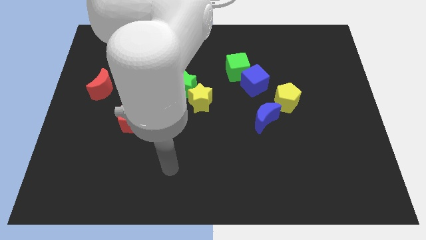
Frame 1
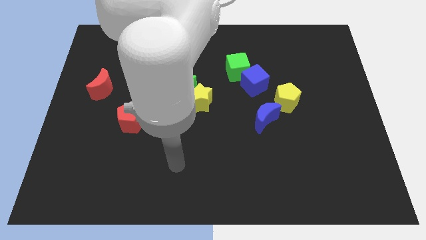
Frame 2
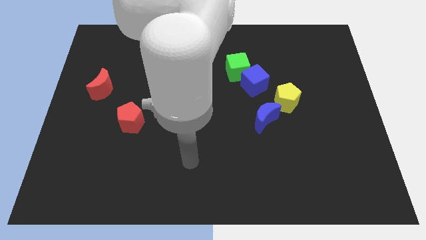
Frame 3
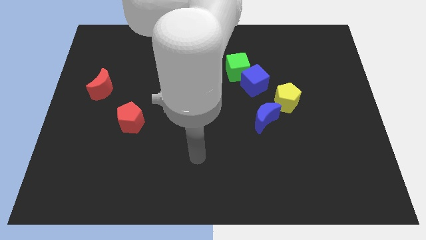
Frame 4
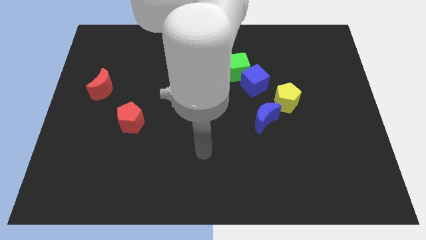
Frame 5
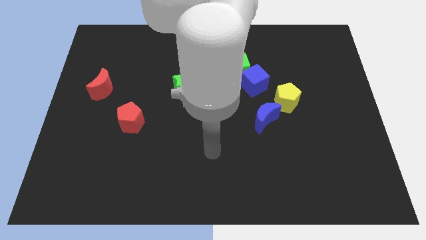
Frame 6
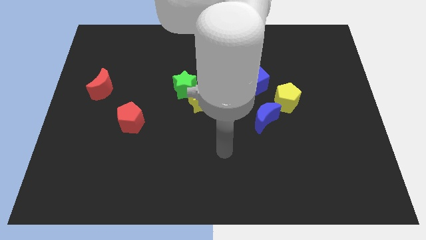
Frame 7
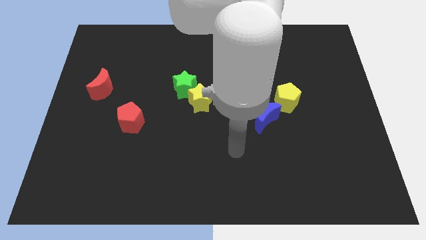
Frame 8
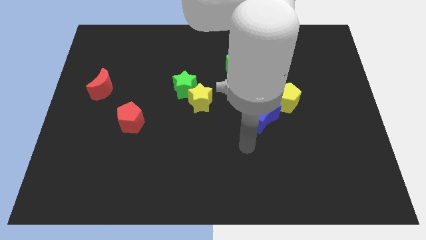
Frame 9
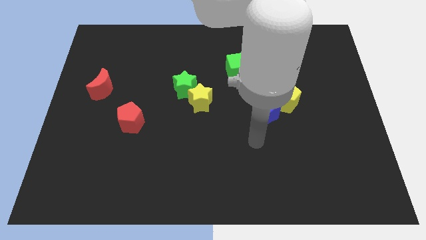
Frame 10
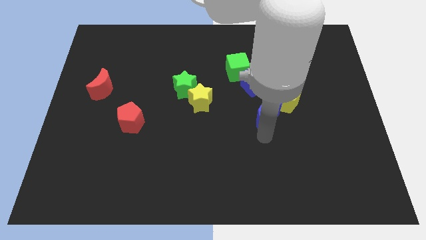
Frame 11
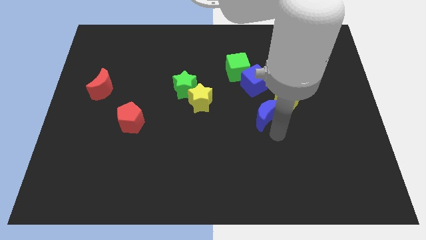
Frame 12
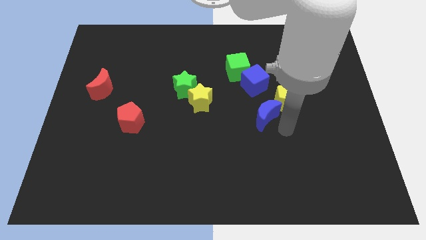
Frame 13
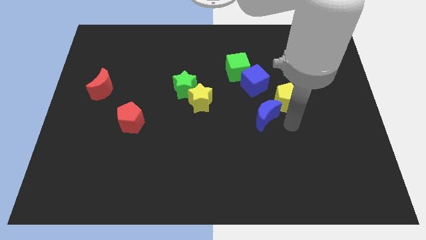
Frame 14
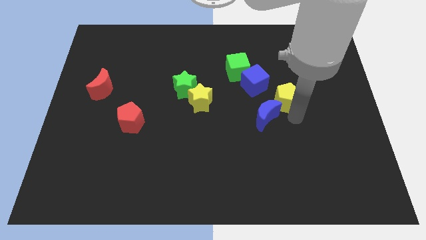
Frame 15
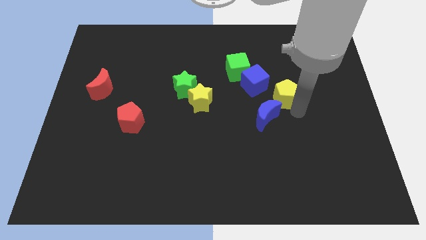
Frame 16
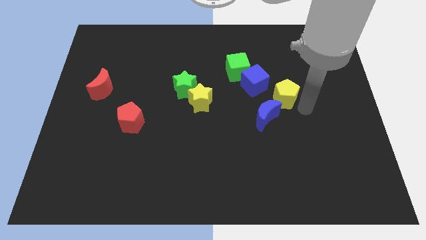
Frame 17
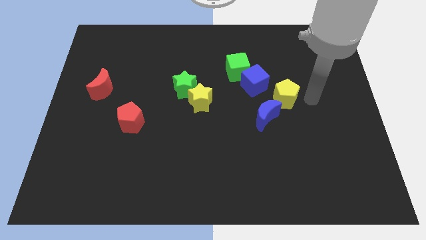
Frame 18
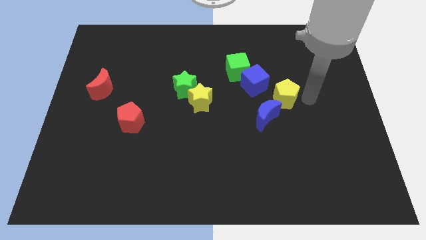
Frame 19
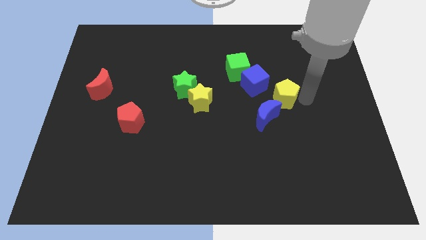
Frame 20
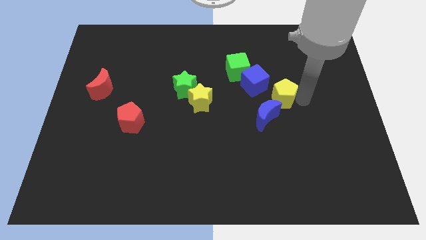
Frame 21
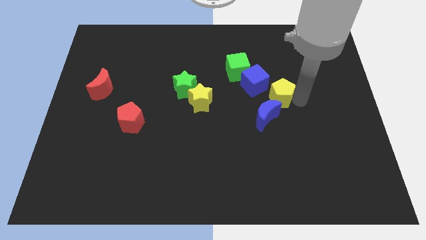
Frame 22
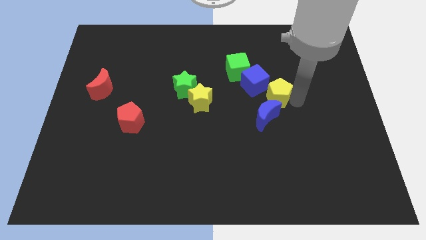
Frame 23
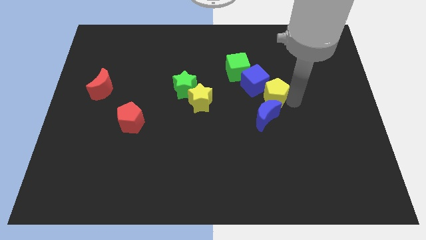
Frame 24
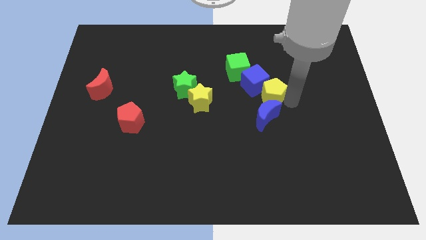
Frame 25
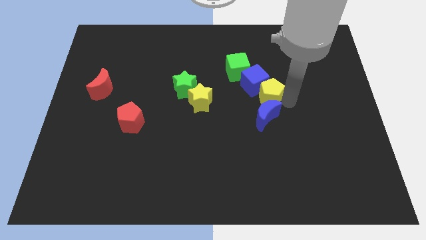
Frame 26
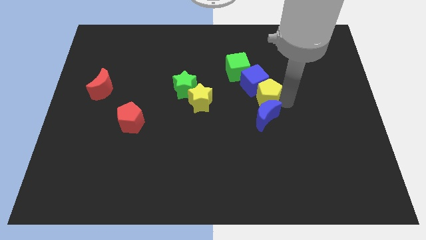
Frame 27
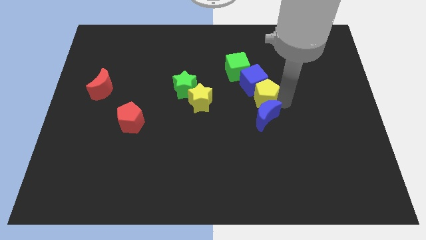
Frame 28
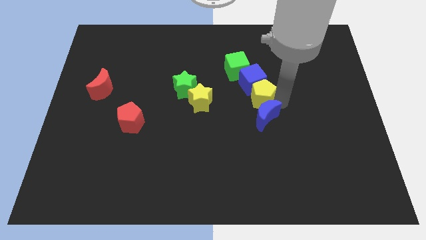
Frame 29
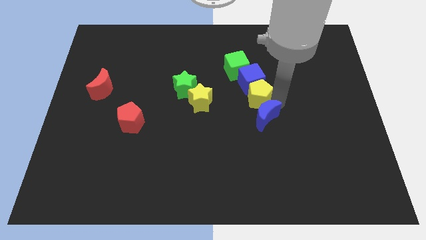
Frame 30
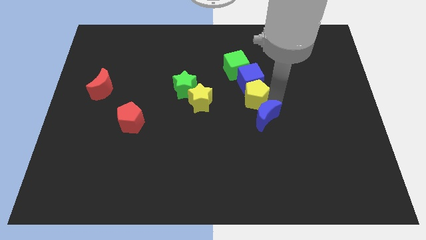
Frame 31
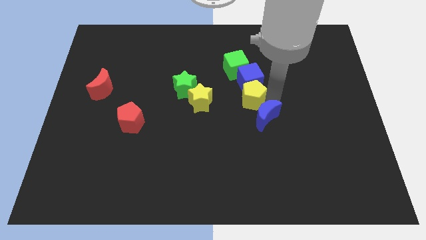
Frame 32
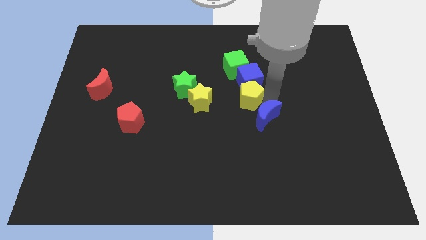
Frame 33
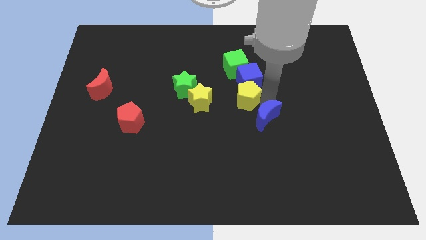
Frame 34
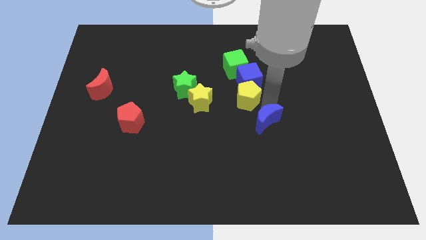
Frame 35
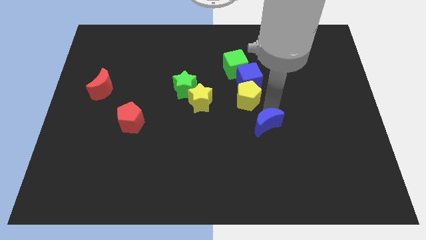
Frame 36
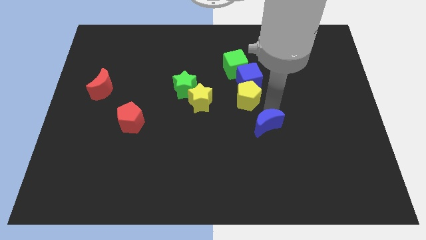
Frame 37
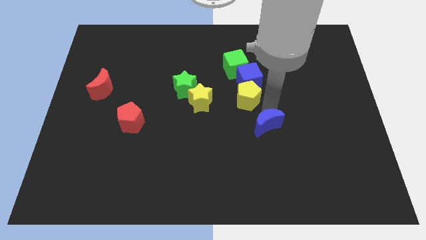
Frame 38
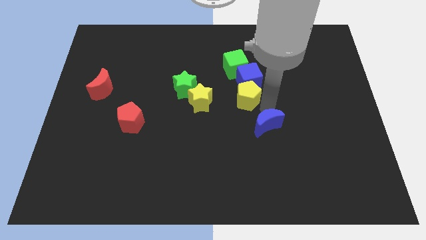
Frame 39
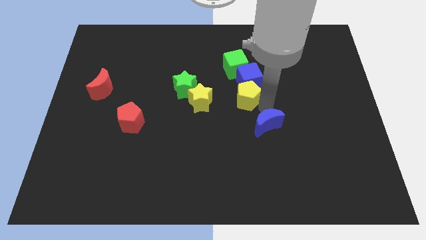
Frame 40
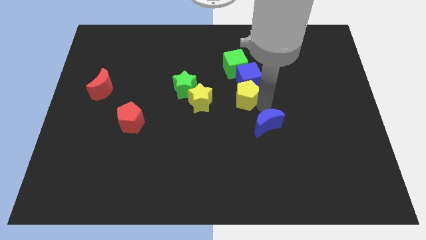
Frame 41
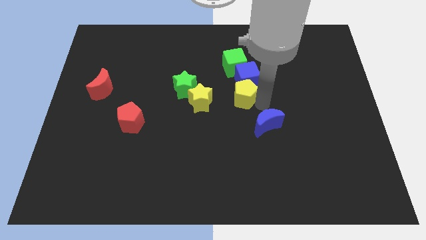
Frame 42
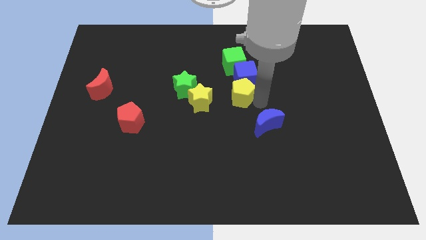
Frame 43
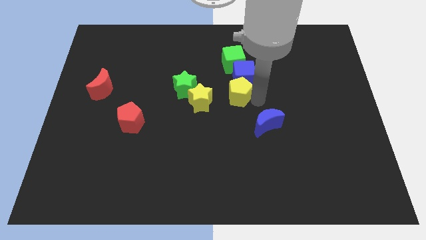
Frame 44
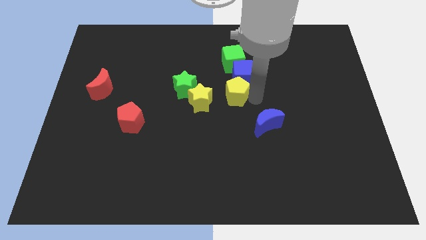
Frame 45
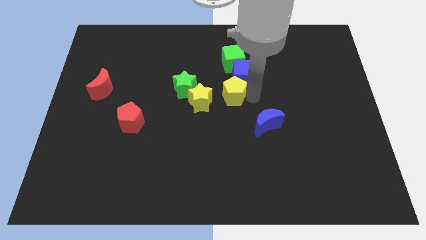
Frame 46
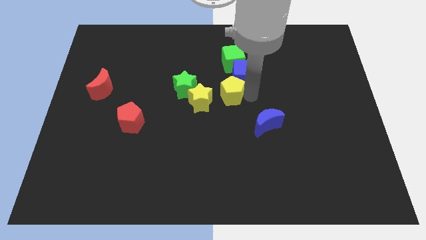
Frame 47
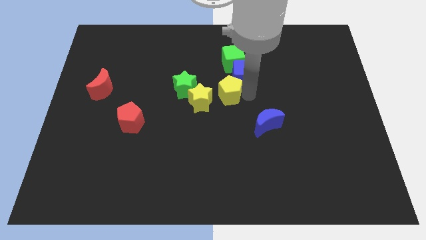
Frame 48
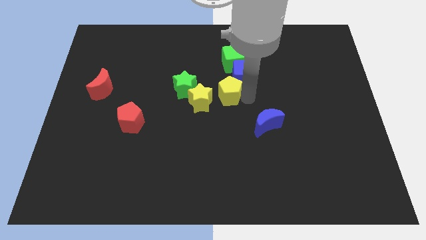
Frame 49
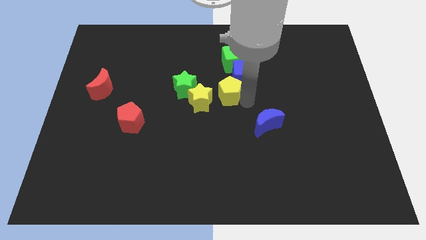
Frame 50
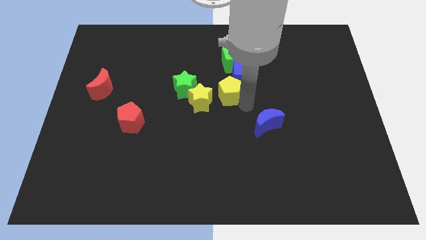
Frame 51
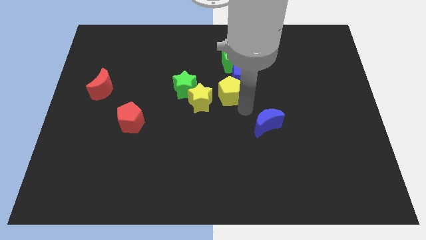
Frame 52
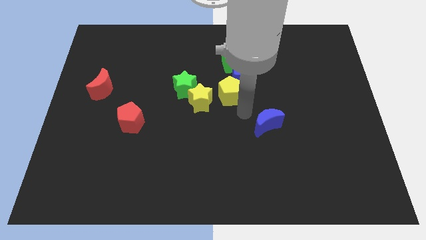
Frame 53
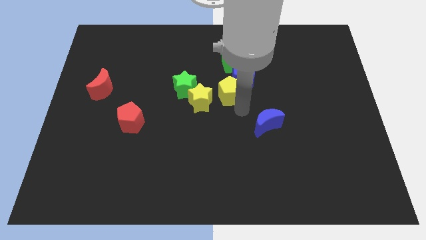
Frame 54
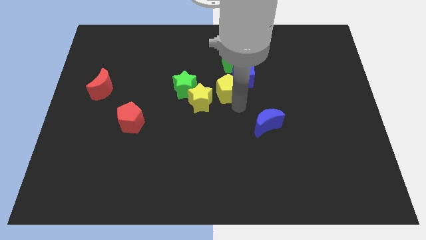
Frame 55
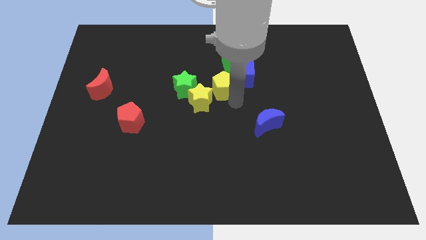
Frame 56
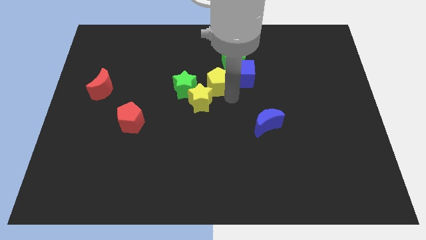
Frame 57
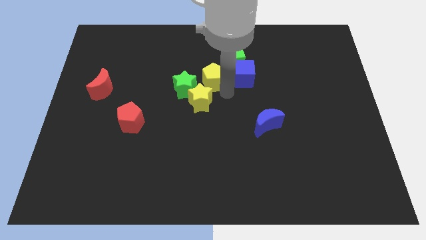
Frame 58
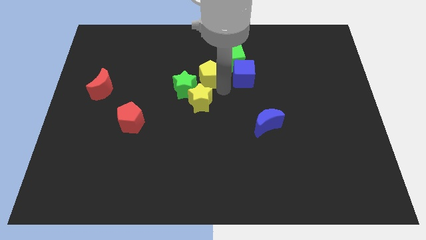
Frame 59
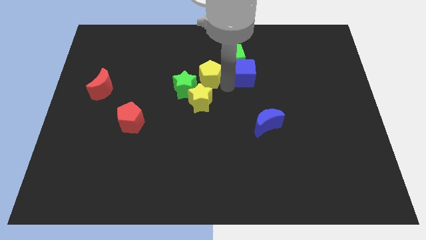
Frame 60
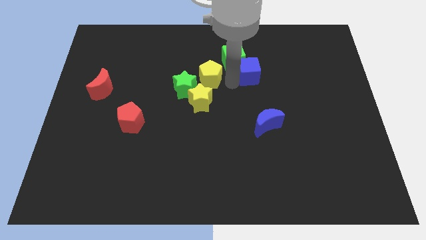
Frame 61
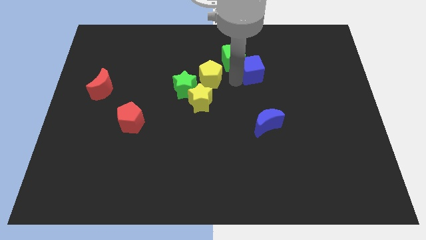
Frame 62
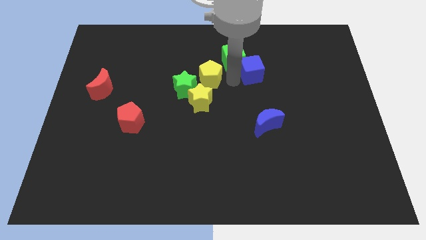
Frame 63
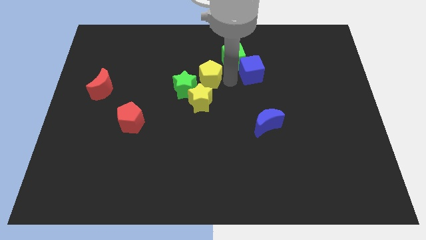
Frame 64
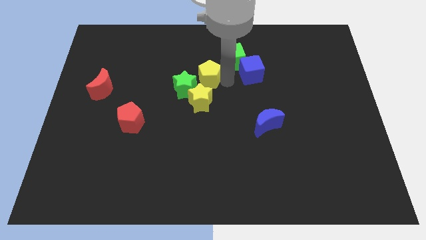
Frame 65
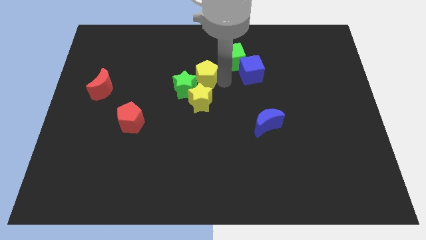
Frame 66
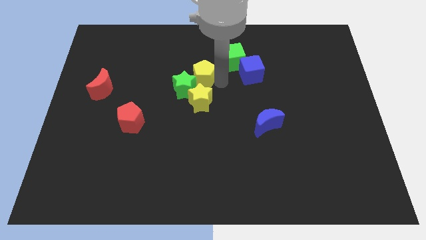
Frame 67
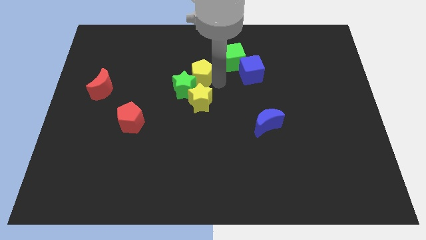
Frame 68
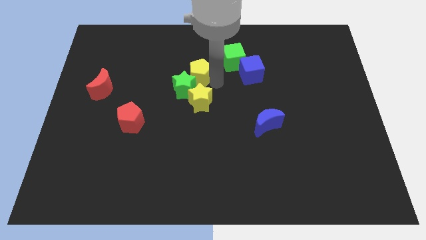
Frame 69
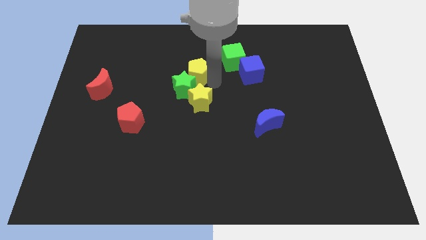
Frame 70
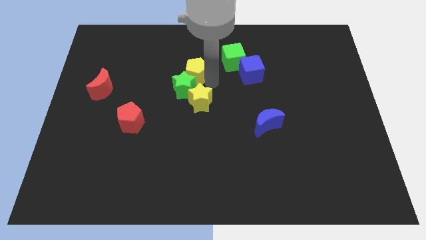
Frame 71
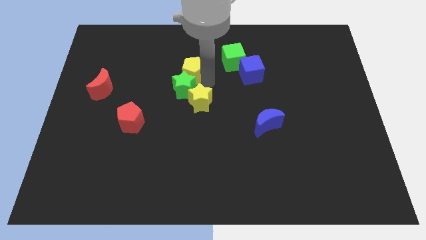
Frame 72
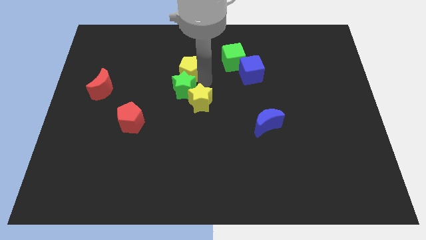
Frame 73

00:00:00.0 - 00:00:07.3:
move the yellow pentagon to the top left of the green star
